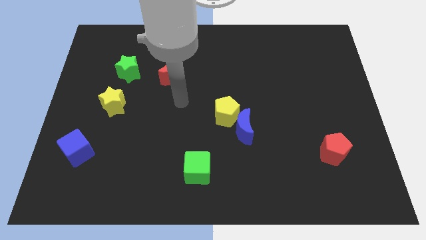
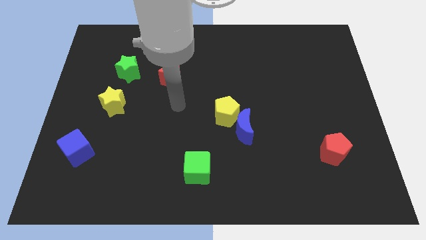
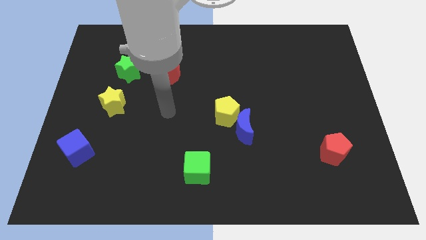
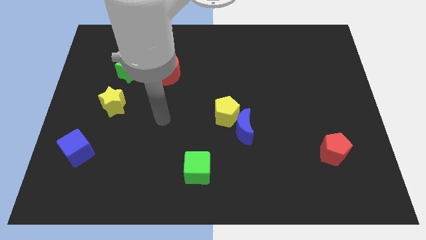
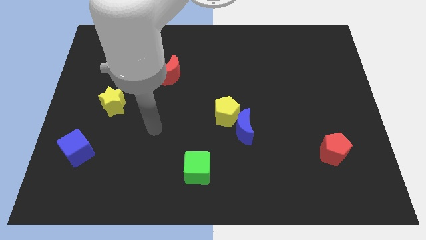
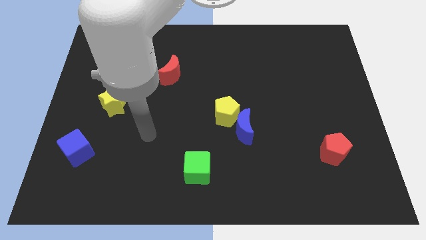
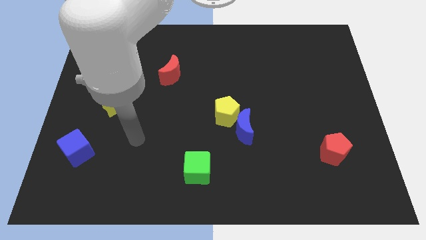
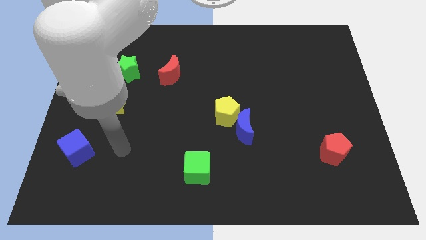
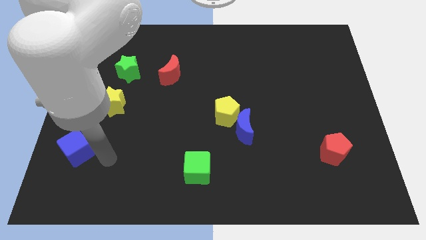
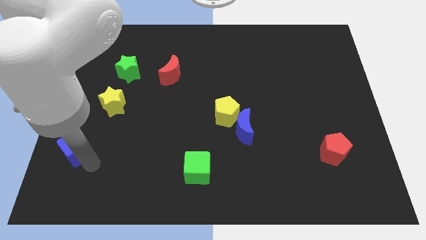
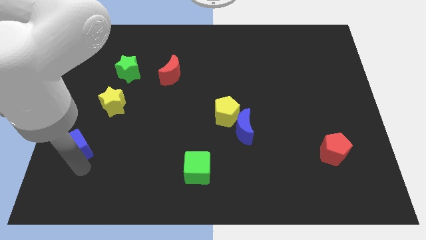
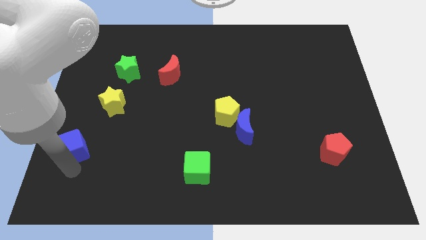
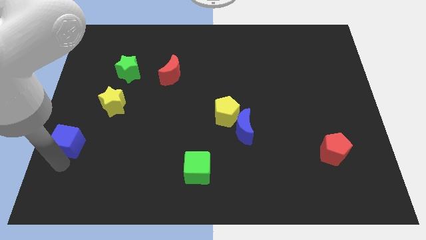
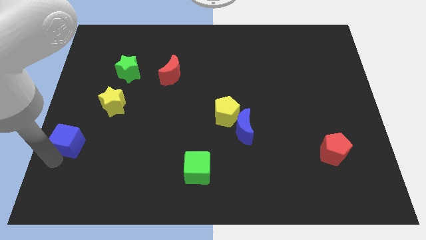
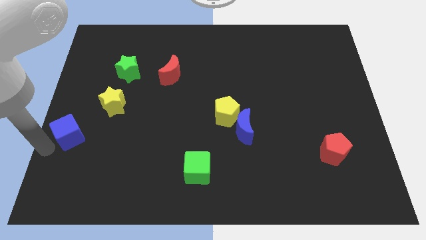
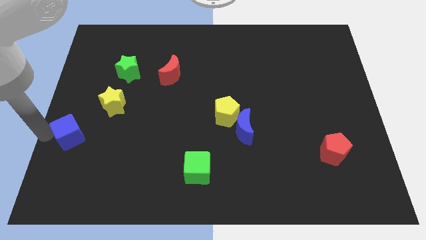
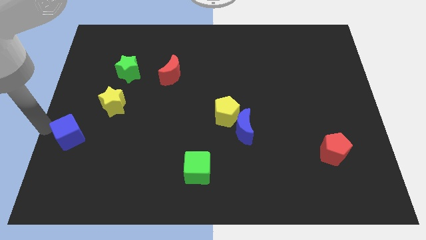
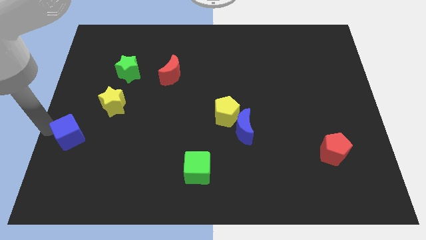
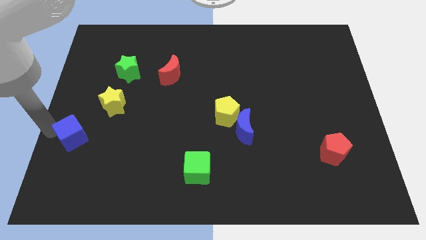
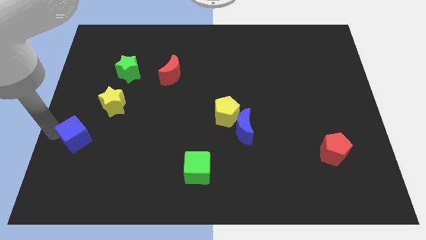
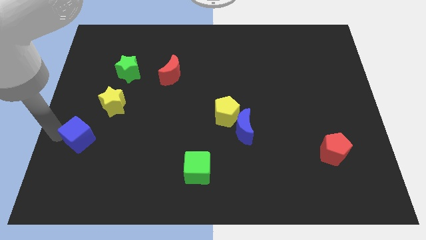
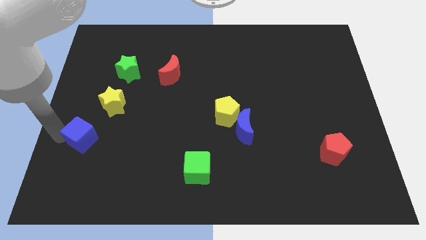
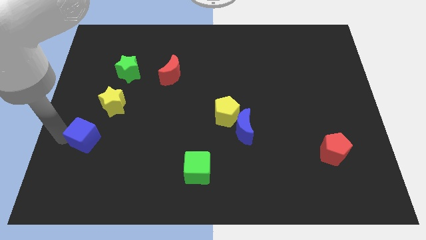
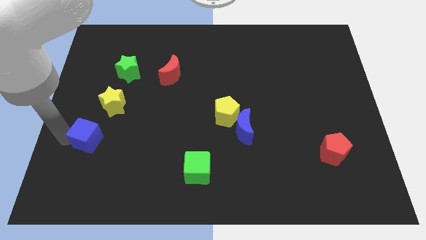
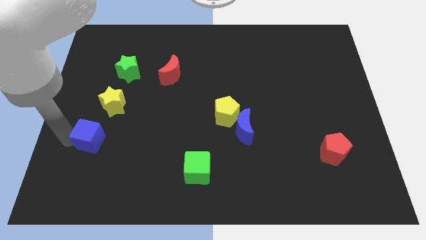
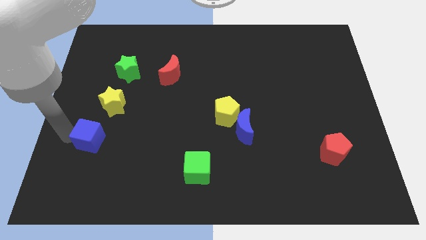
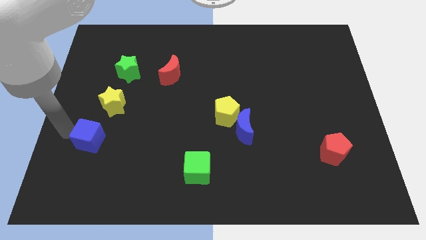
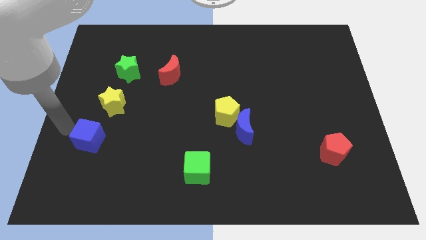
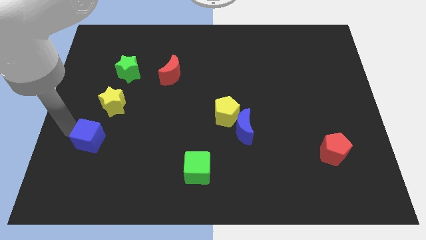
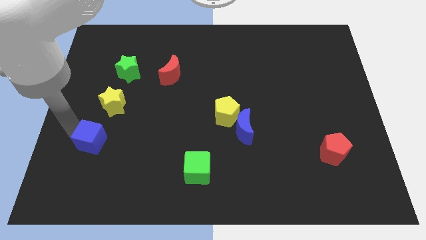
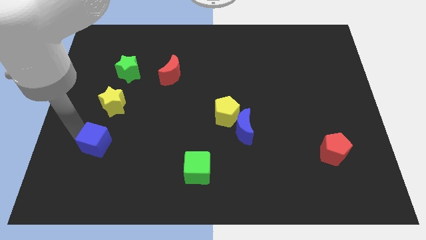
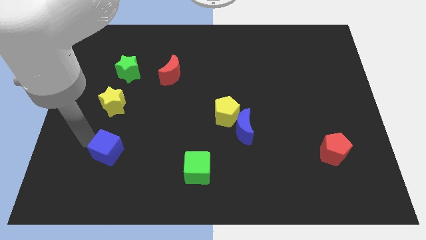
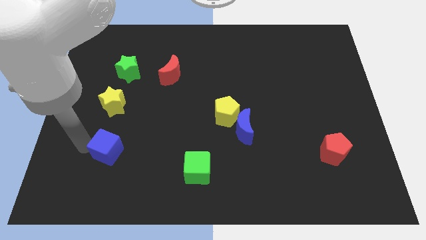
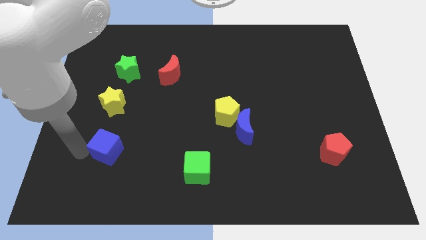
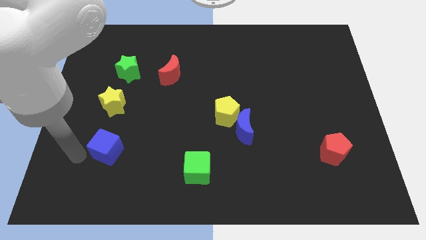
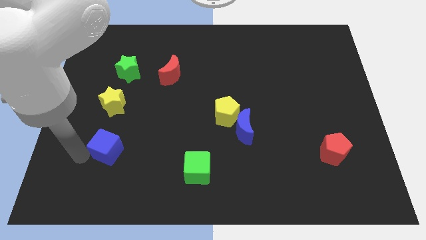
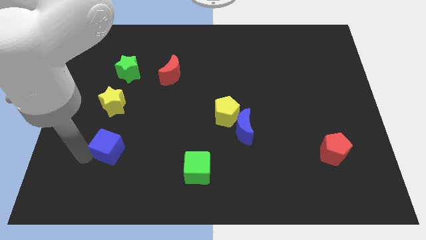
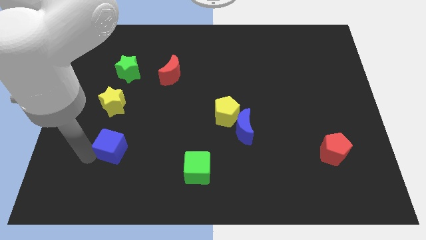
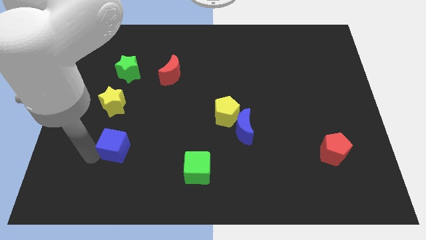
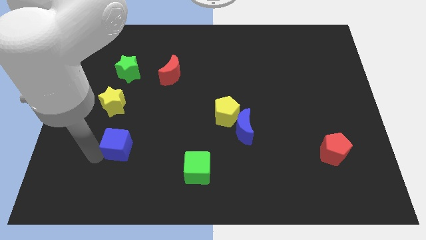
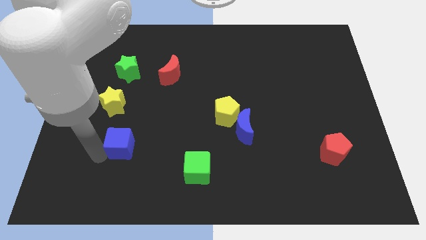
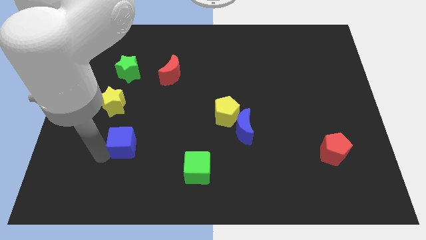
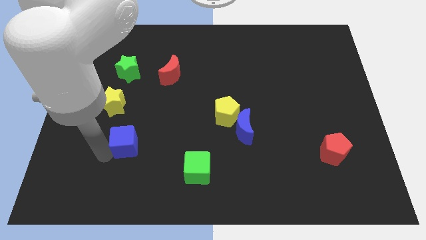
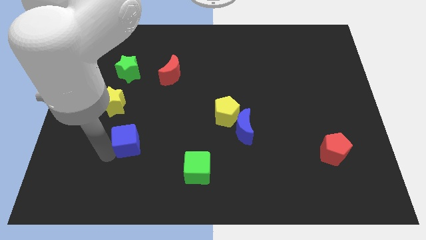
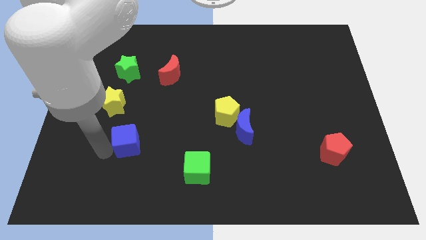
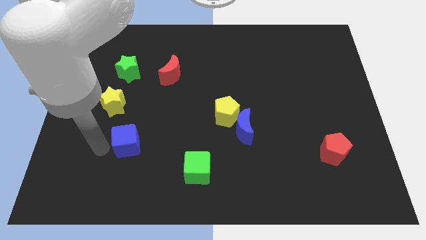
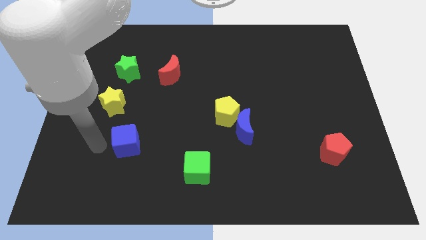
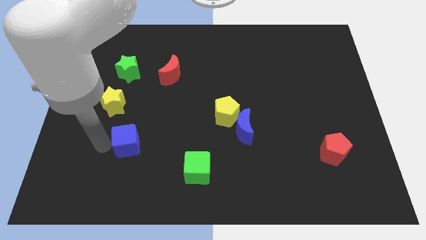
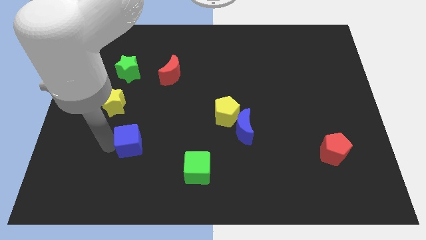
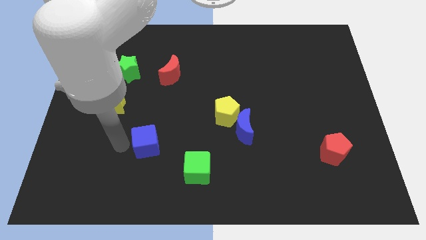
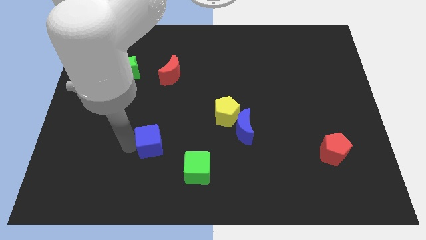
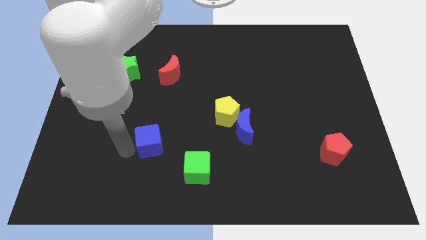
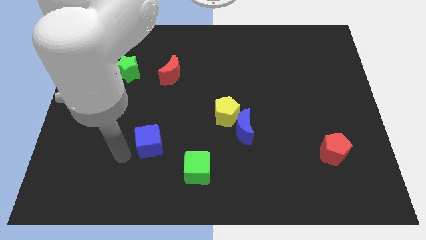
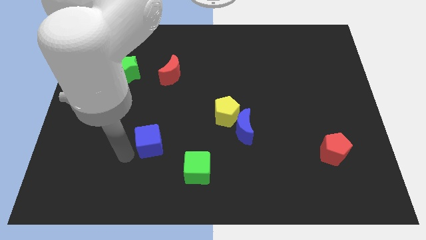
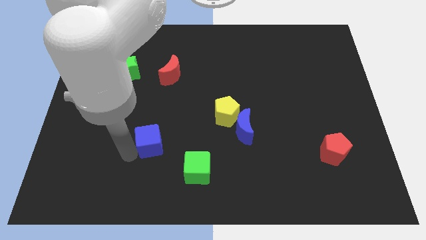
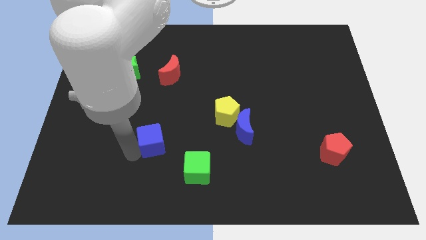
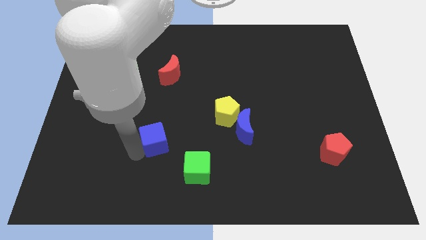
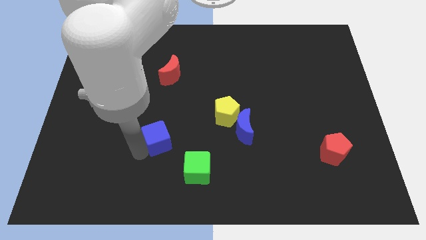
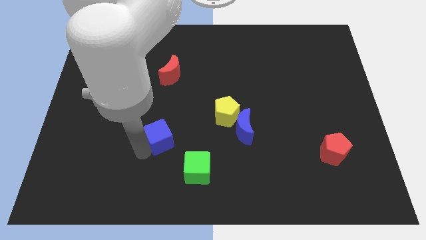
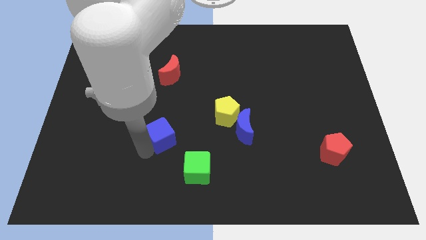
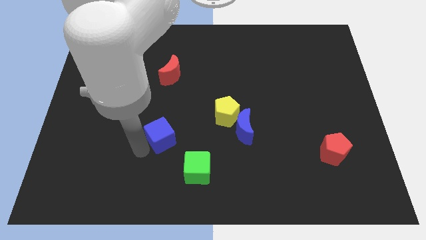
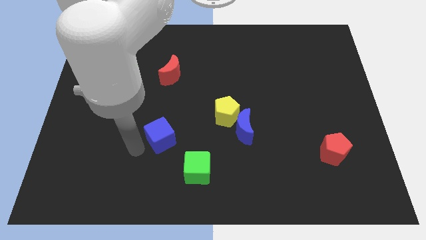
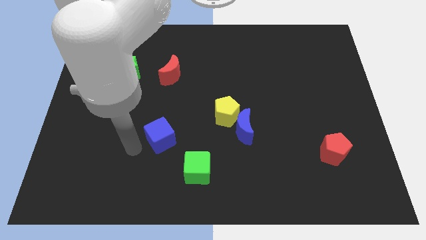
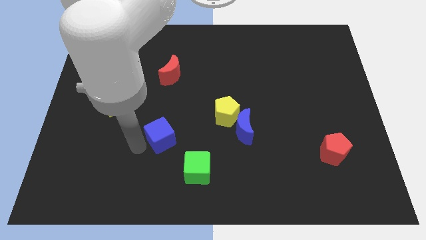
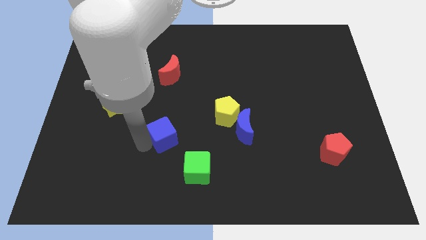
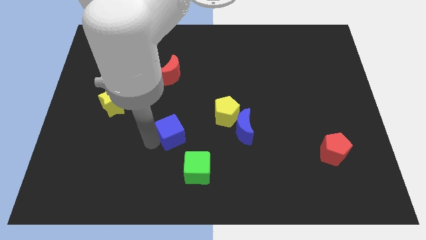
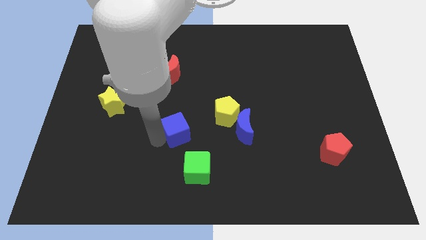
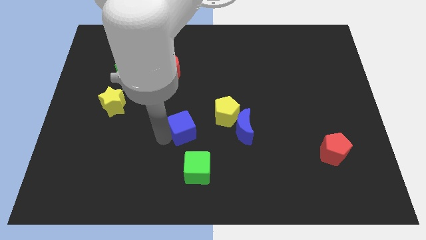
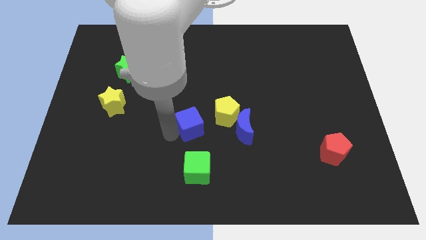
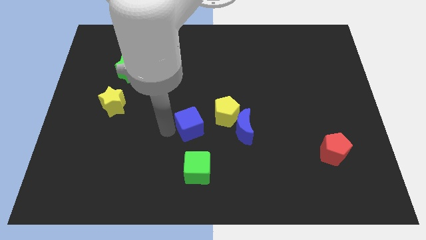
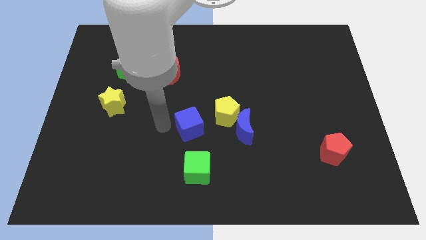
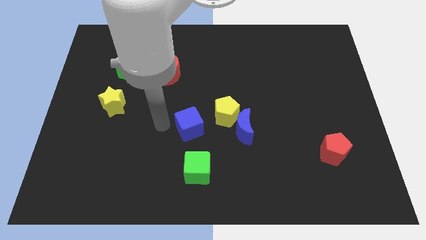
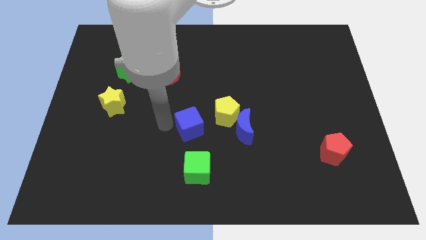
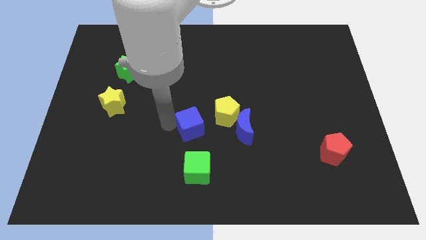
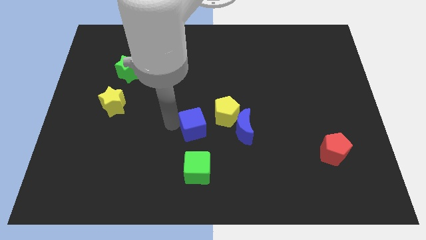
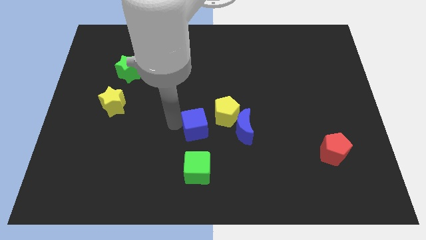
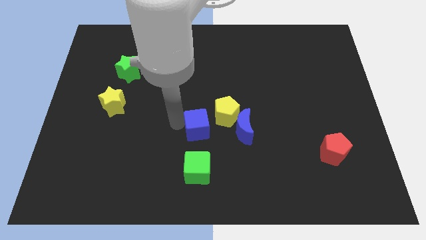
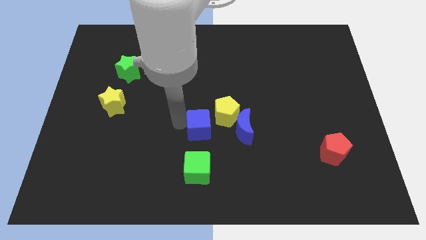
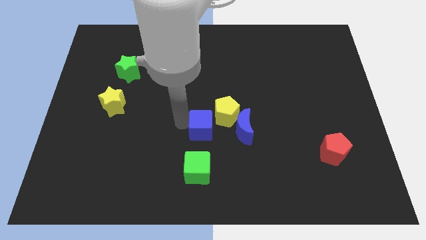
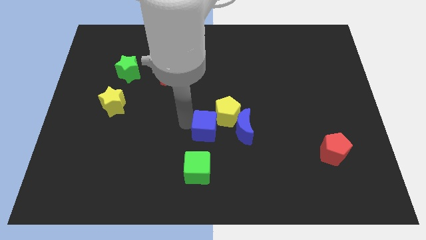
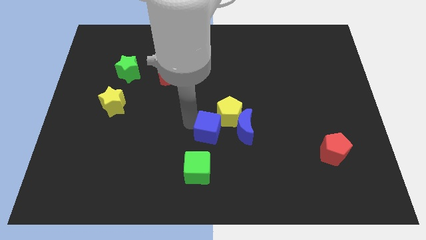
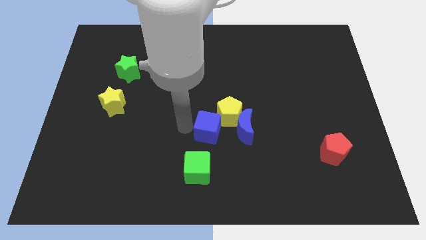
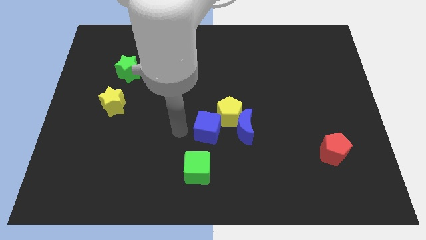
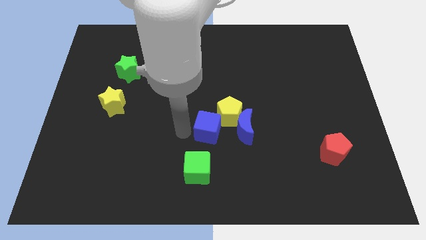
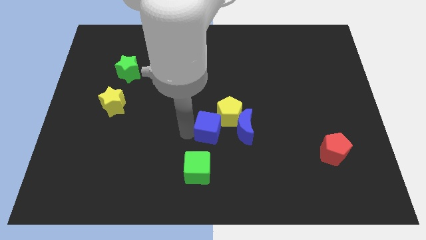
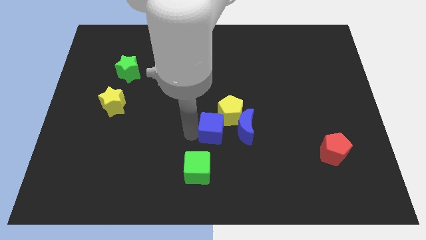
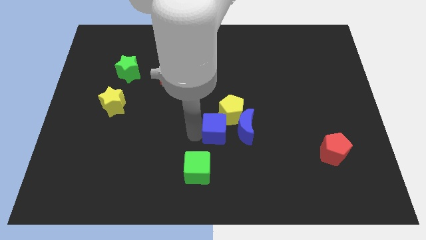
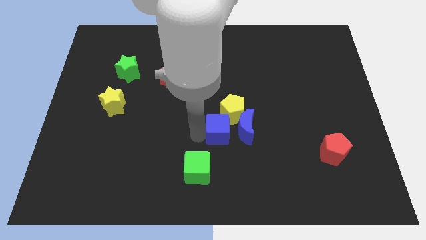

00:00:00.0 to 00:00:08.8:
move the blue cube close to the blue moon
